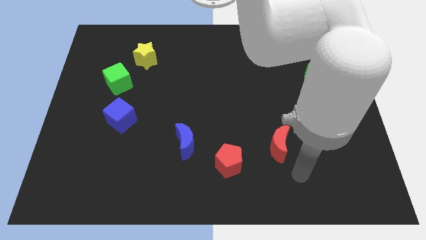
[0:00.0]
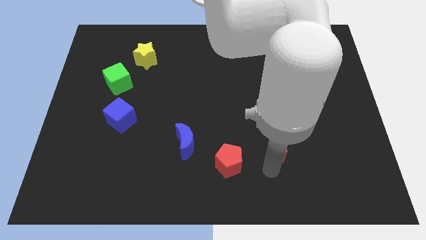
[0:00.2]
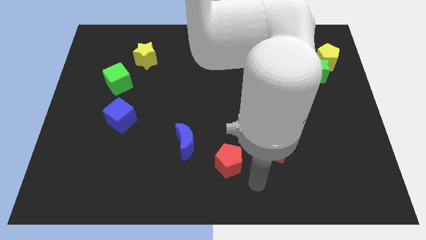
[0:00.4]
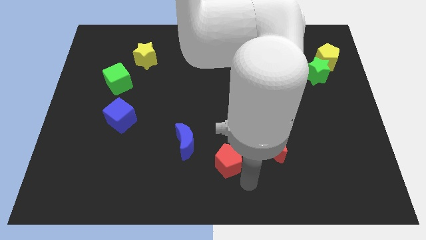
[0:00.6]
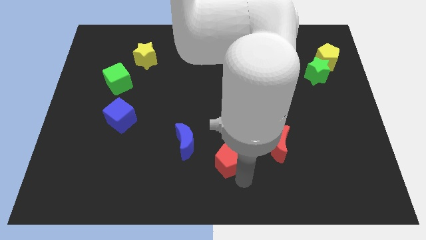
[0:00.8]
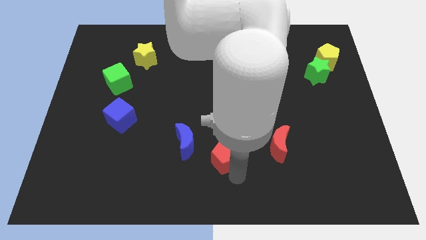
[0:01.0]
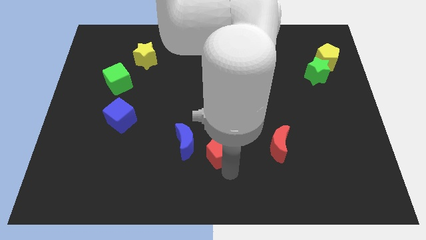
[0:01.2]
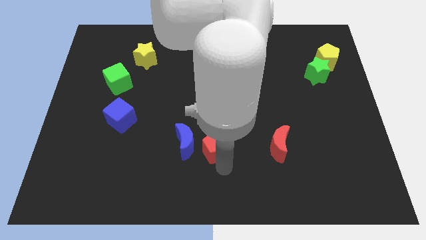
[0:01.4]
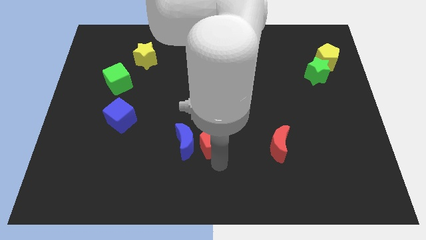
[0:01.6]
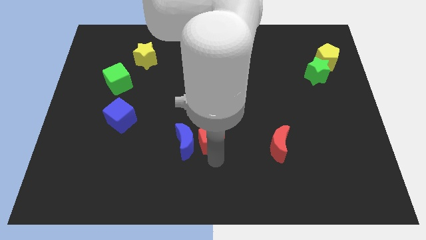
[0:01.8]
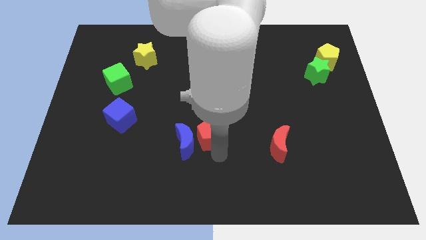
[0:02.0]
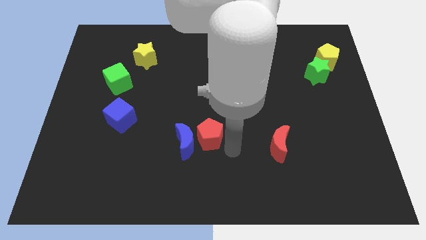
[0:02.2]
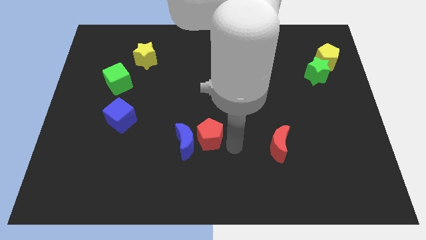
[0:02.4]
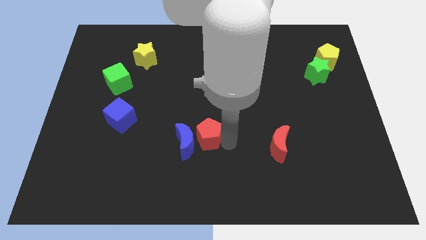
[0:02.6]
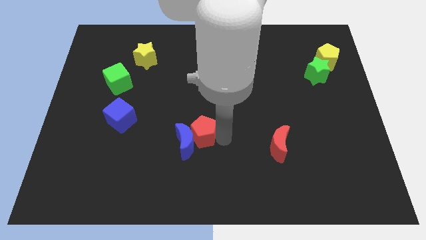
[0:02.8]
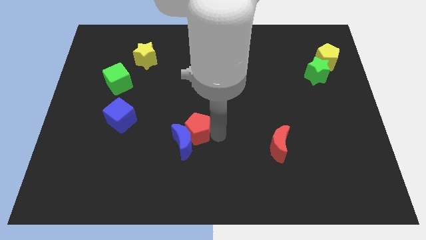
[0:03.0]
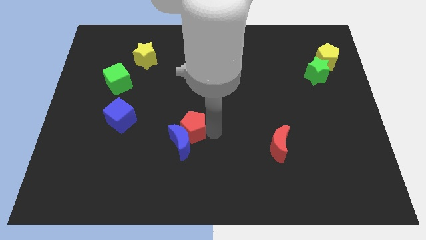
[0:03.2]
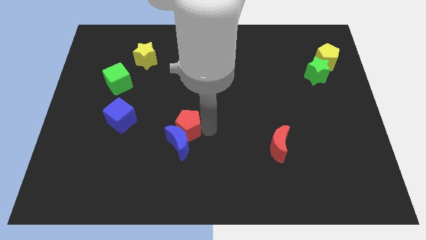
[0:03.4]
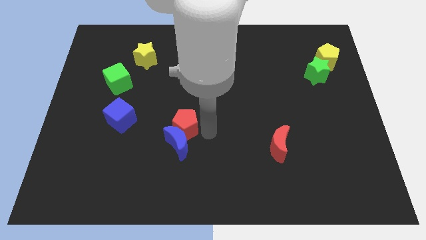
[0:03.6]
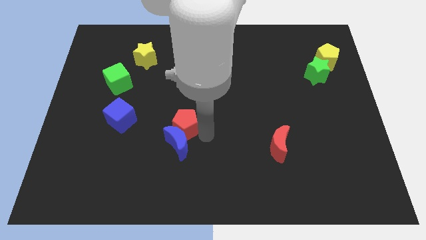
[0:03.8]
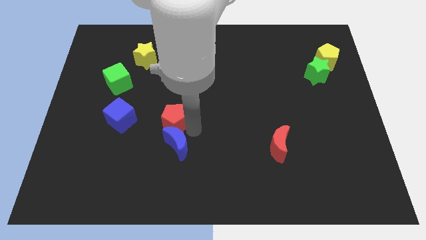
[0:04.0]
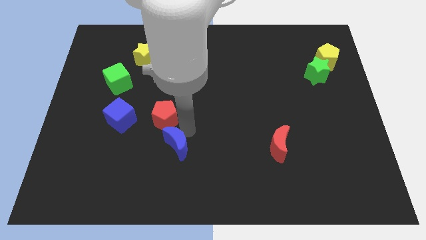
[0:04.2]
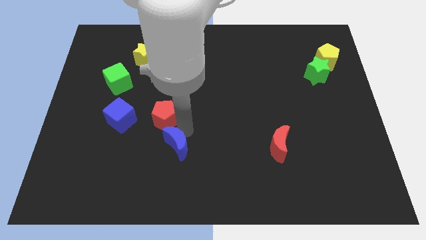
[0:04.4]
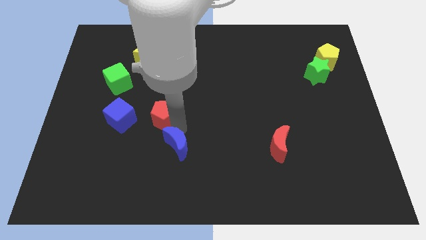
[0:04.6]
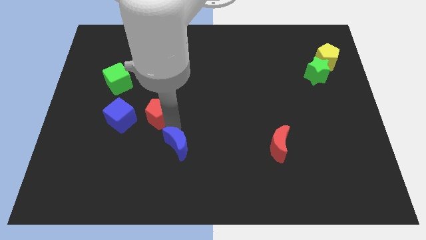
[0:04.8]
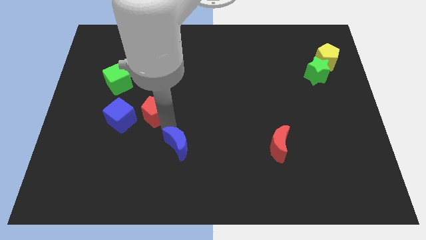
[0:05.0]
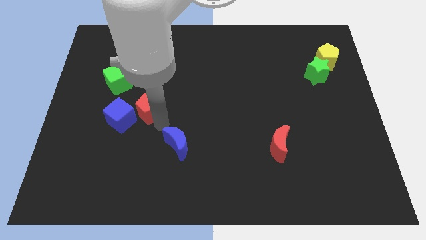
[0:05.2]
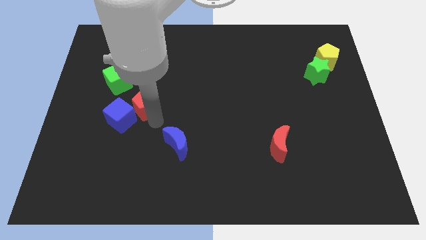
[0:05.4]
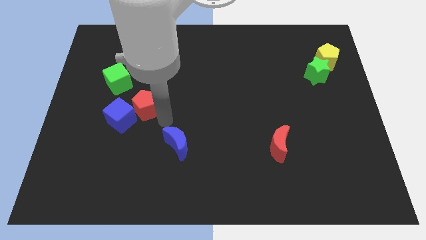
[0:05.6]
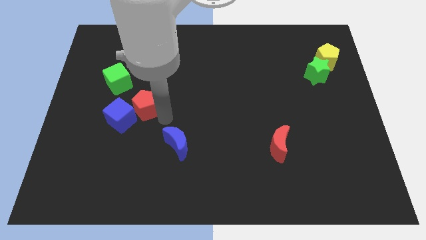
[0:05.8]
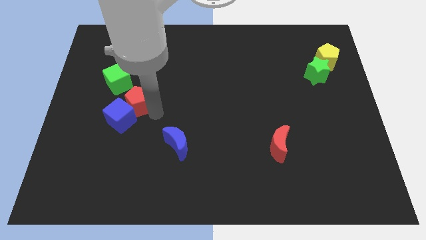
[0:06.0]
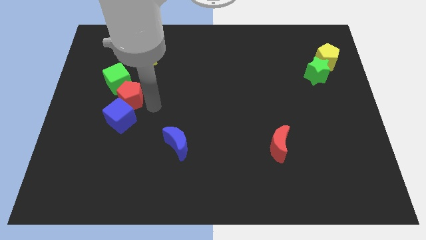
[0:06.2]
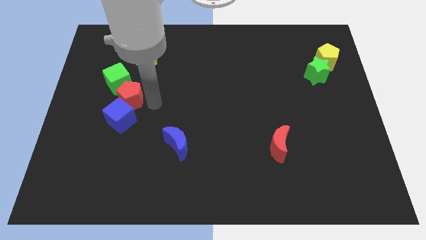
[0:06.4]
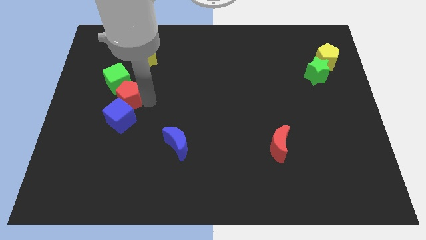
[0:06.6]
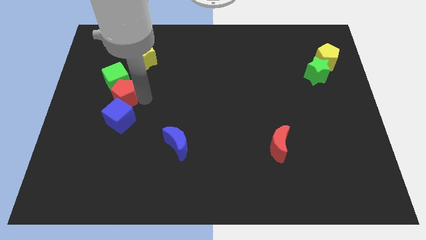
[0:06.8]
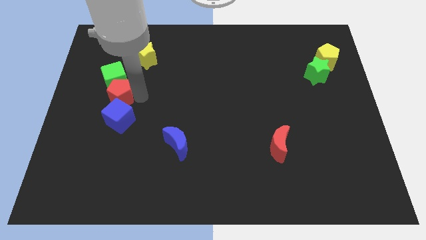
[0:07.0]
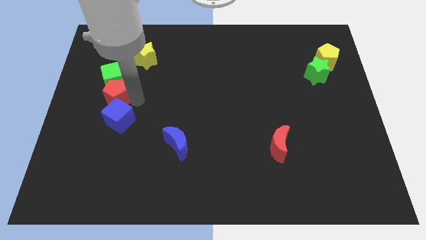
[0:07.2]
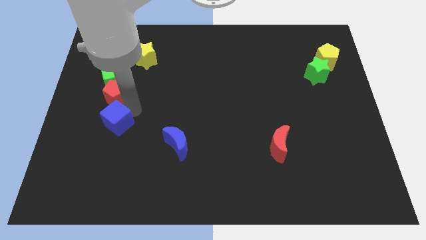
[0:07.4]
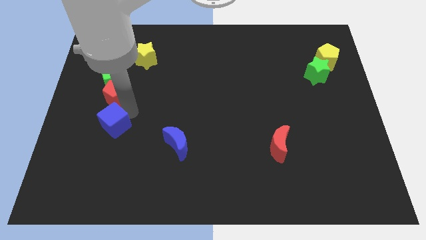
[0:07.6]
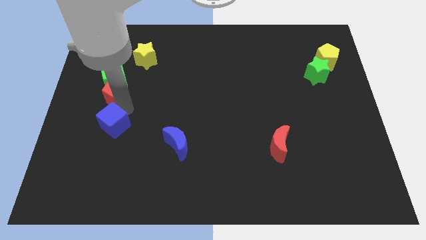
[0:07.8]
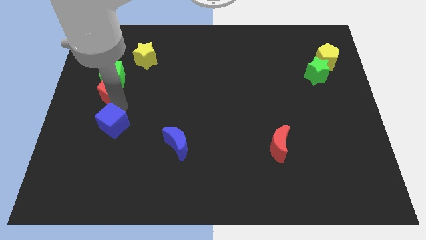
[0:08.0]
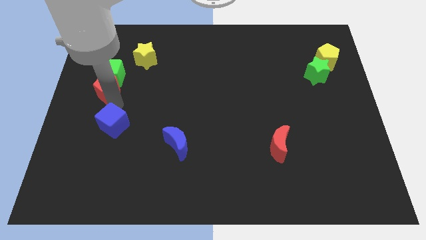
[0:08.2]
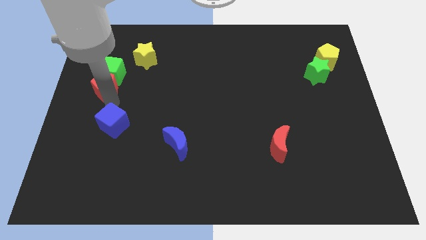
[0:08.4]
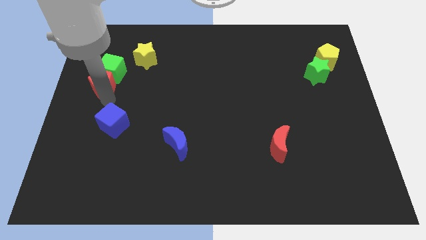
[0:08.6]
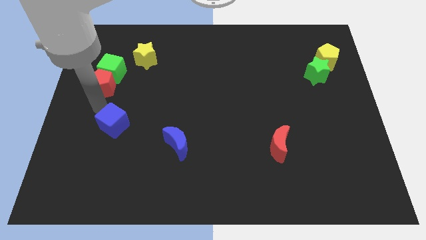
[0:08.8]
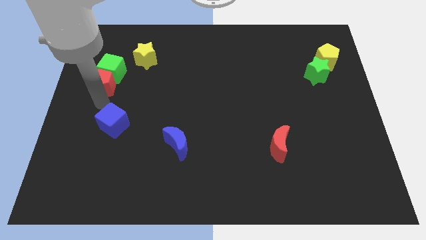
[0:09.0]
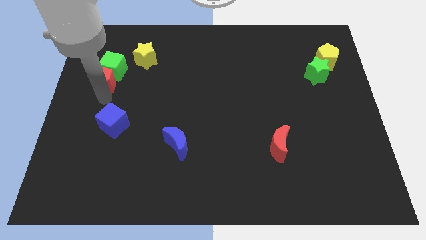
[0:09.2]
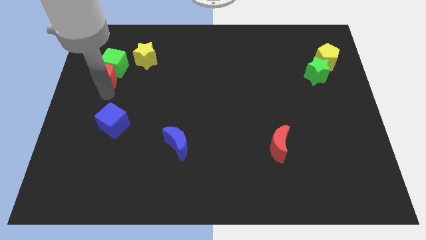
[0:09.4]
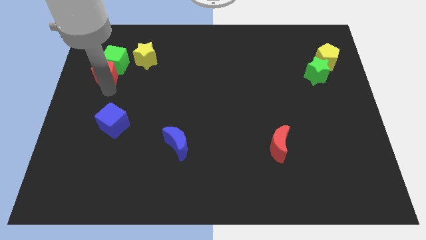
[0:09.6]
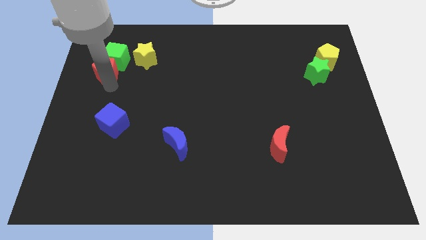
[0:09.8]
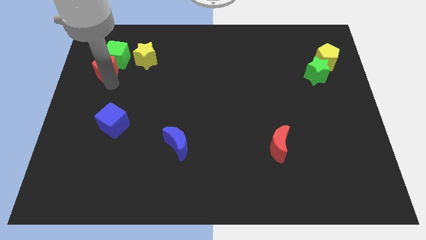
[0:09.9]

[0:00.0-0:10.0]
slide the red pentagon left of the yellow star

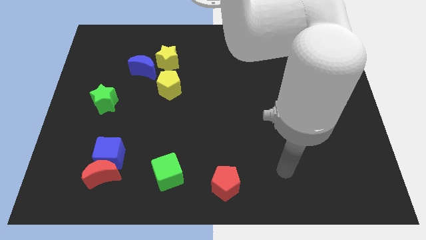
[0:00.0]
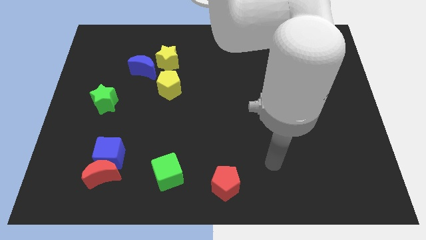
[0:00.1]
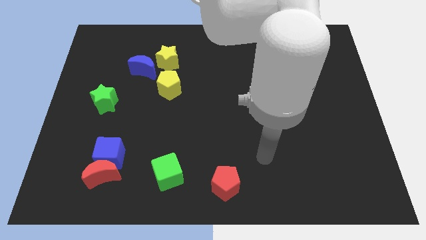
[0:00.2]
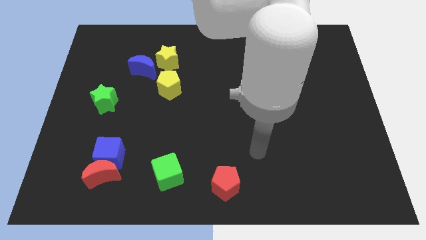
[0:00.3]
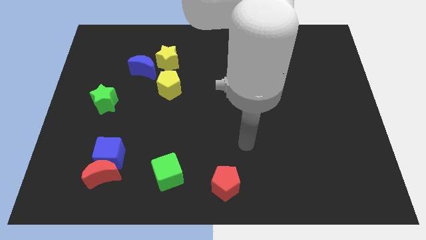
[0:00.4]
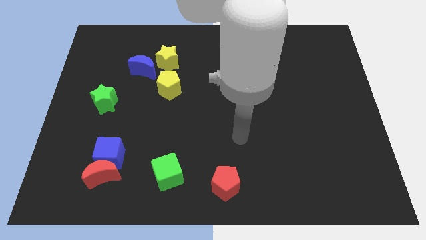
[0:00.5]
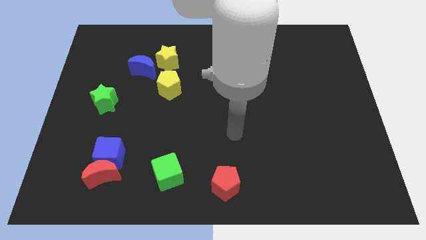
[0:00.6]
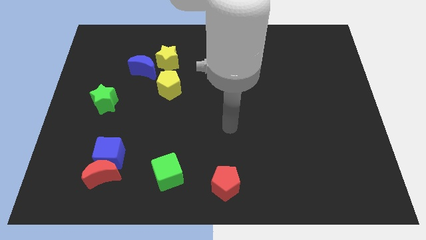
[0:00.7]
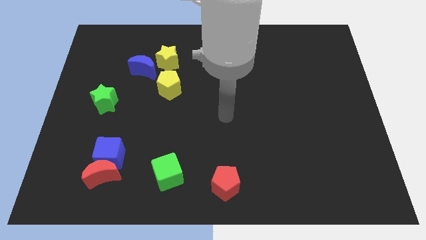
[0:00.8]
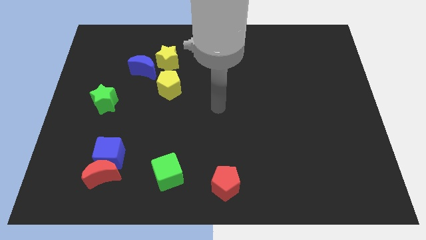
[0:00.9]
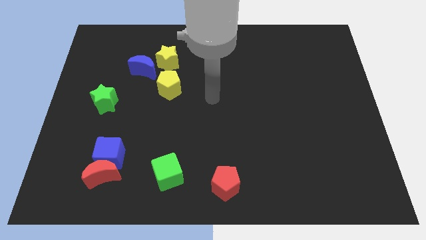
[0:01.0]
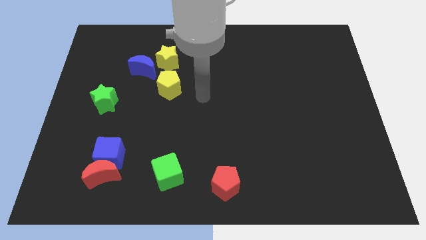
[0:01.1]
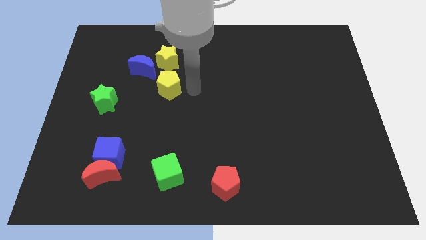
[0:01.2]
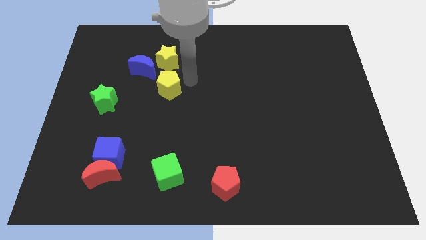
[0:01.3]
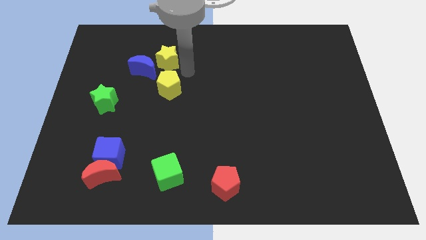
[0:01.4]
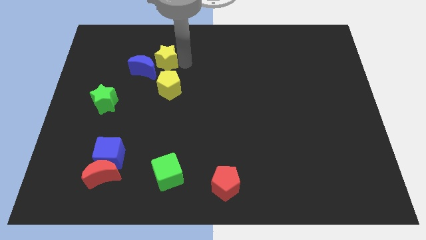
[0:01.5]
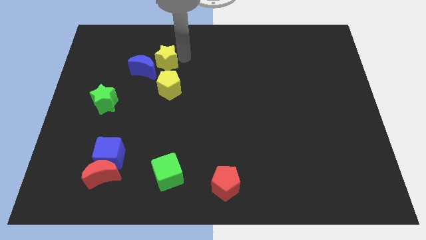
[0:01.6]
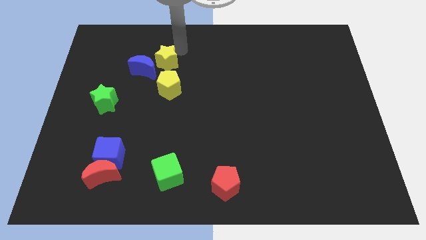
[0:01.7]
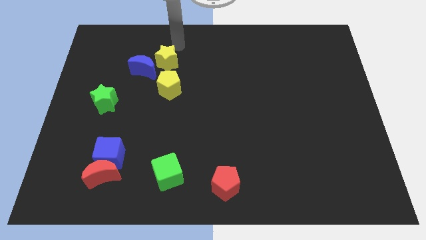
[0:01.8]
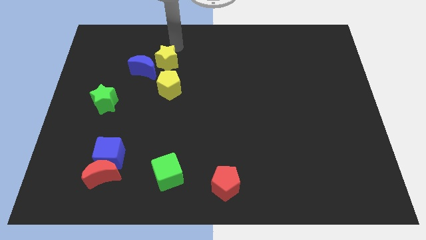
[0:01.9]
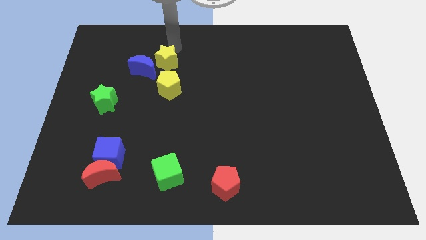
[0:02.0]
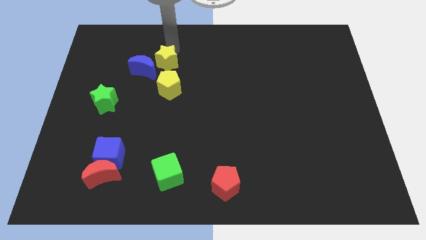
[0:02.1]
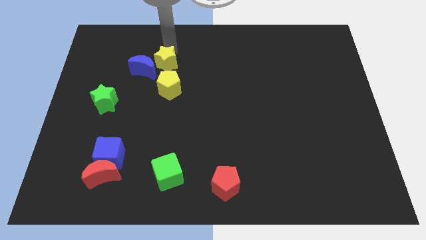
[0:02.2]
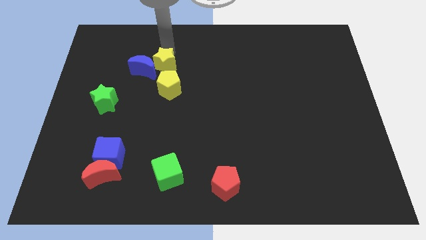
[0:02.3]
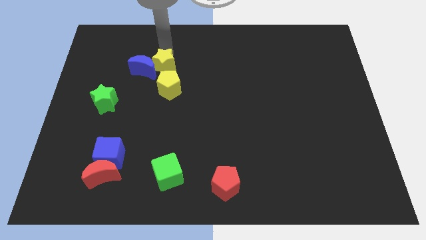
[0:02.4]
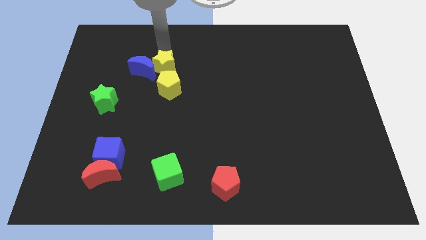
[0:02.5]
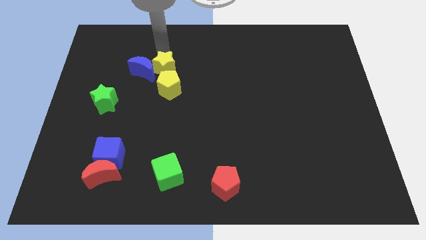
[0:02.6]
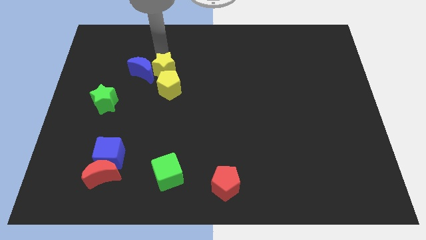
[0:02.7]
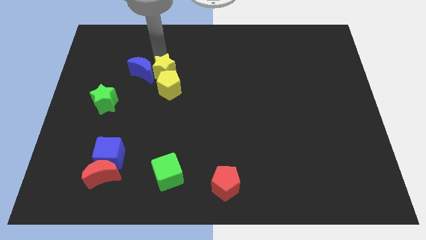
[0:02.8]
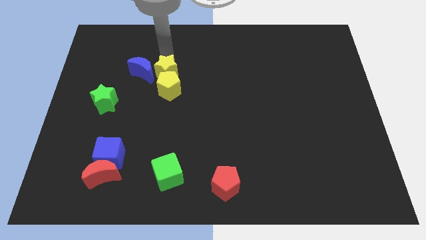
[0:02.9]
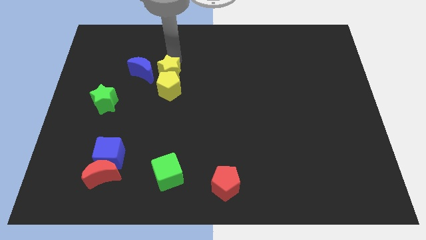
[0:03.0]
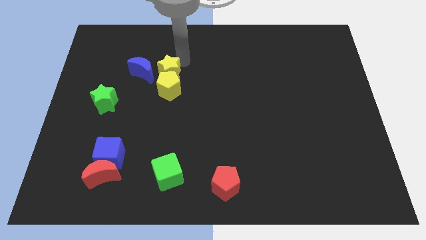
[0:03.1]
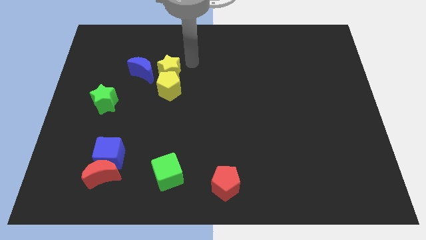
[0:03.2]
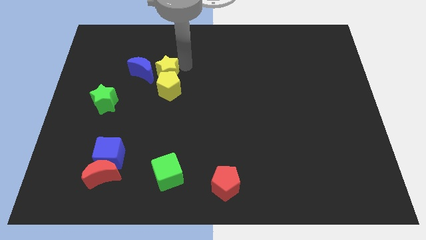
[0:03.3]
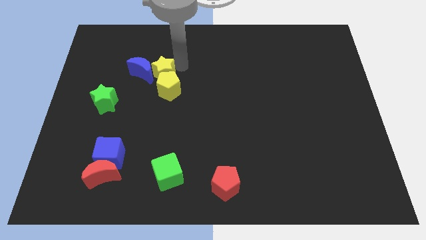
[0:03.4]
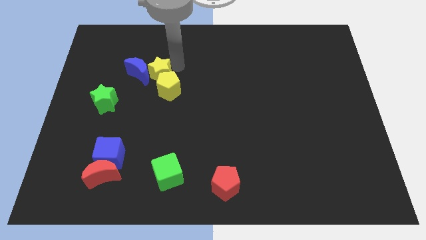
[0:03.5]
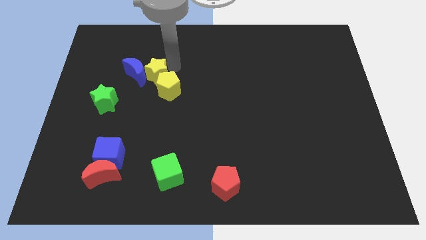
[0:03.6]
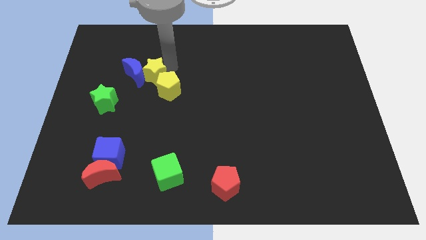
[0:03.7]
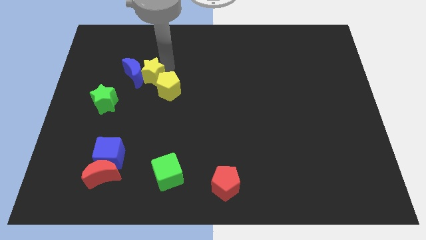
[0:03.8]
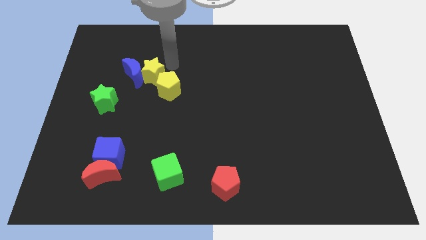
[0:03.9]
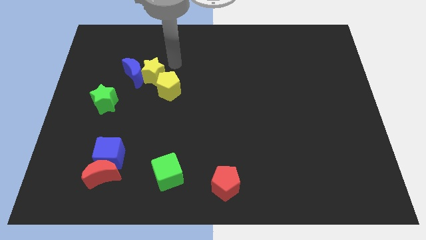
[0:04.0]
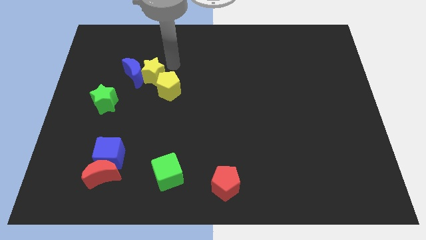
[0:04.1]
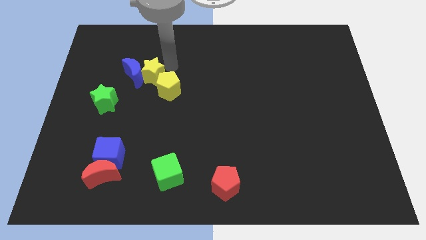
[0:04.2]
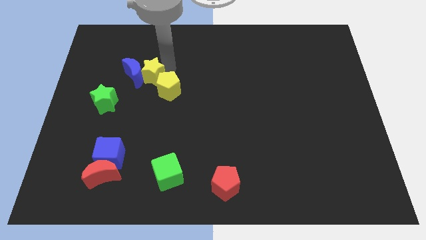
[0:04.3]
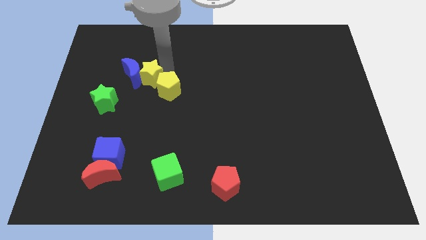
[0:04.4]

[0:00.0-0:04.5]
slide the yellow star to the top right of the green star
